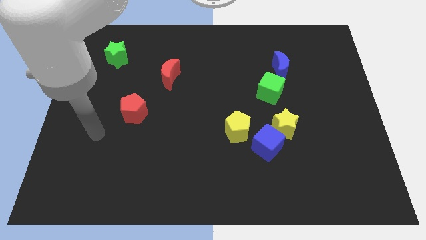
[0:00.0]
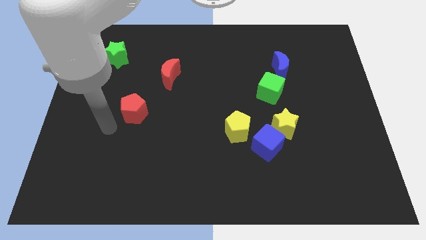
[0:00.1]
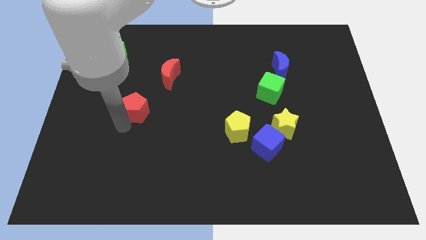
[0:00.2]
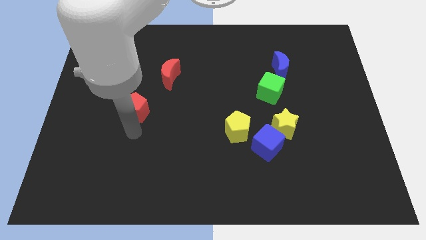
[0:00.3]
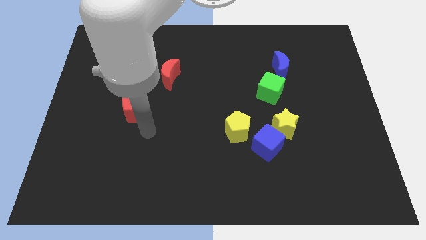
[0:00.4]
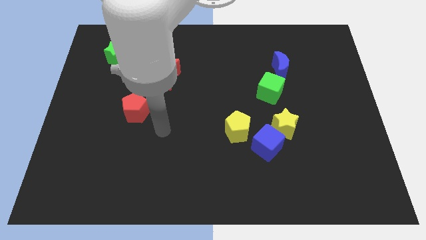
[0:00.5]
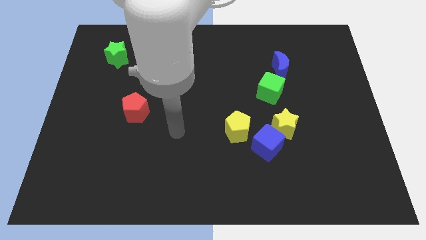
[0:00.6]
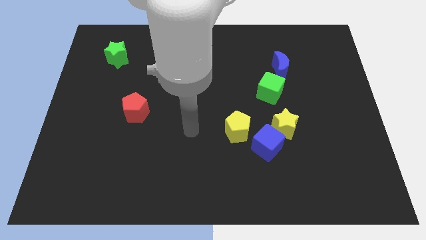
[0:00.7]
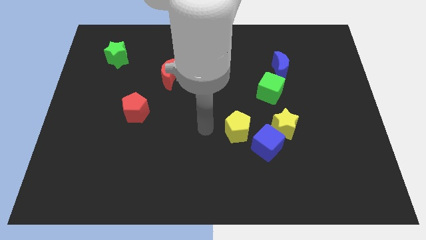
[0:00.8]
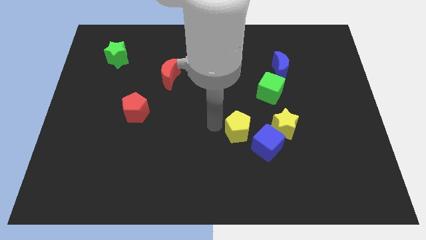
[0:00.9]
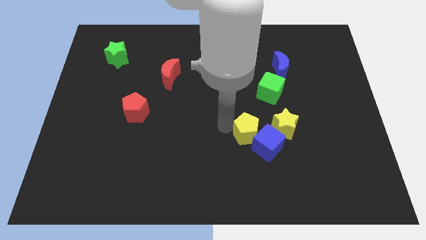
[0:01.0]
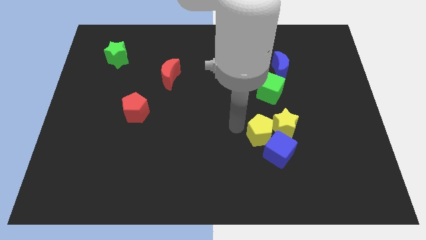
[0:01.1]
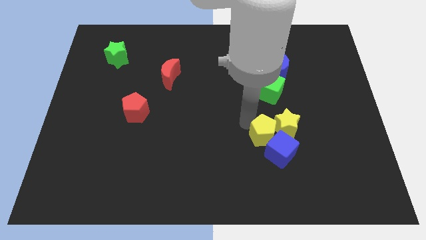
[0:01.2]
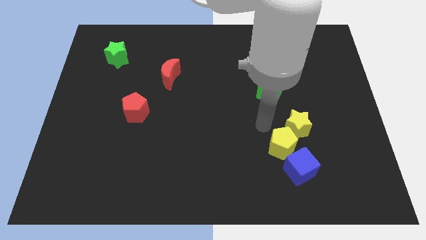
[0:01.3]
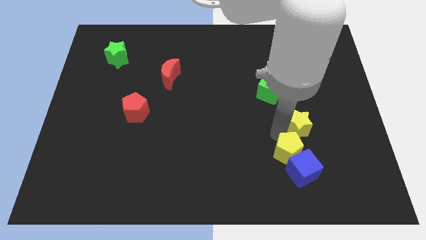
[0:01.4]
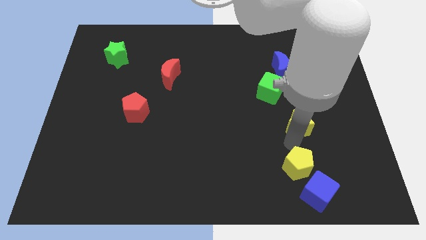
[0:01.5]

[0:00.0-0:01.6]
pull the blue cube apart from the yellow star and yellow pentagon

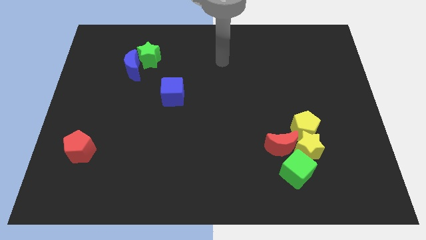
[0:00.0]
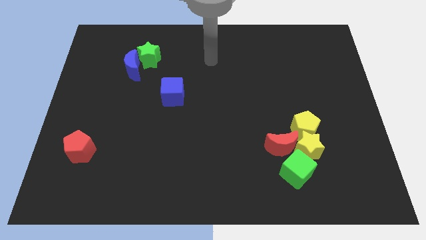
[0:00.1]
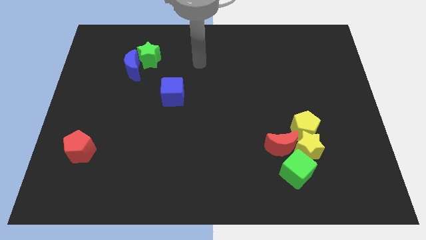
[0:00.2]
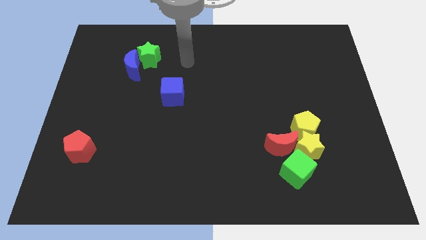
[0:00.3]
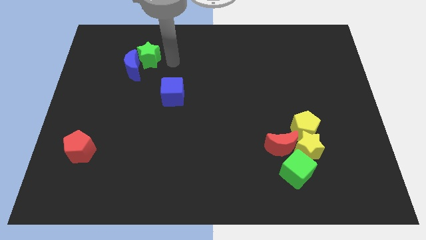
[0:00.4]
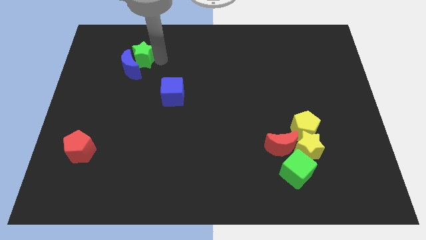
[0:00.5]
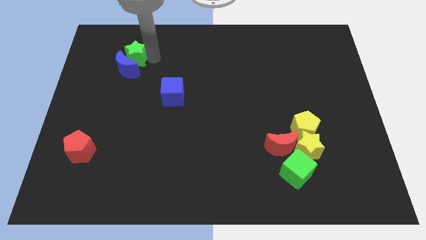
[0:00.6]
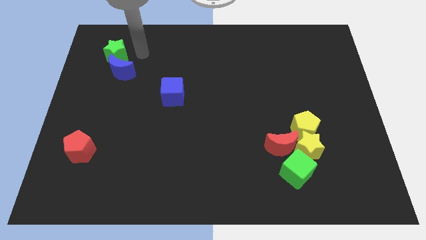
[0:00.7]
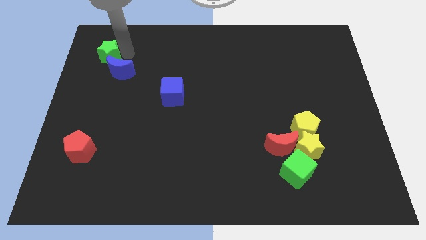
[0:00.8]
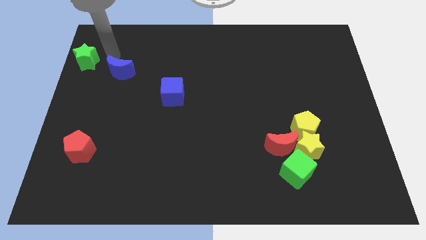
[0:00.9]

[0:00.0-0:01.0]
pull the blue moon apart from the green star

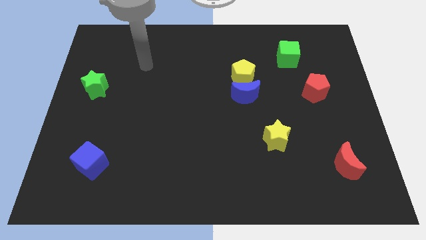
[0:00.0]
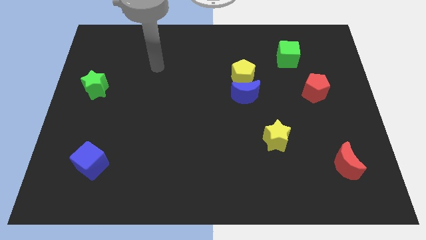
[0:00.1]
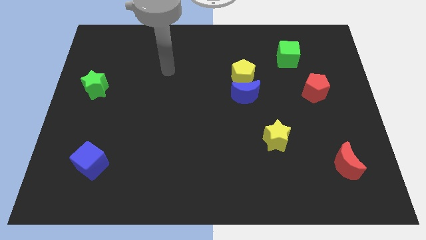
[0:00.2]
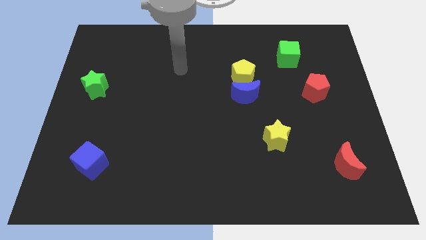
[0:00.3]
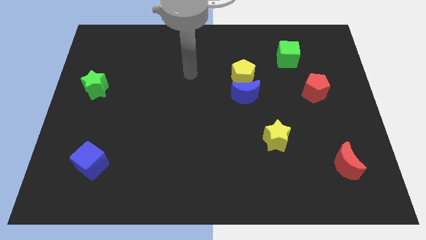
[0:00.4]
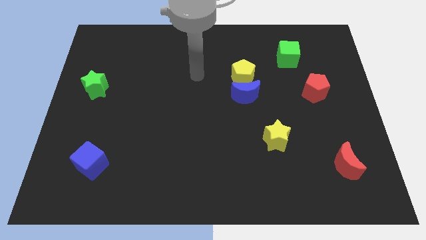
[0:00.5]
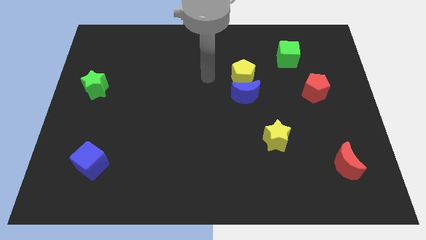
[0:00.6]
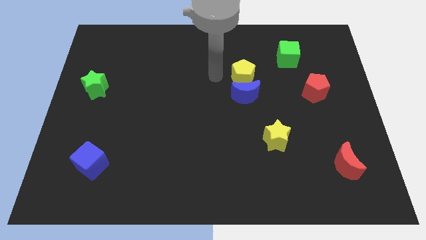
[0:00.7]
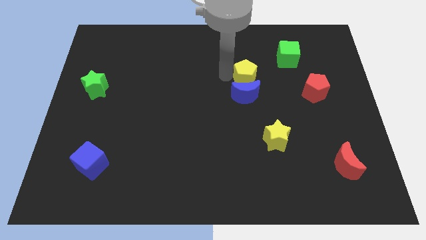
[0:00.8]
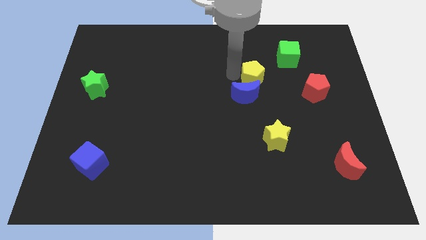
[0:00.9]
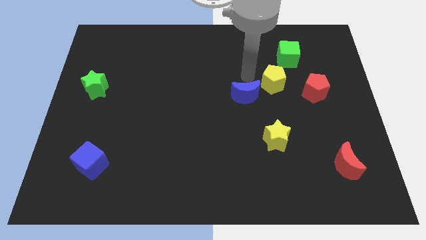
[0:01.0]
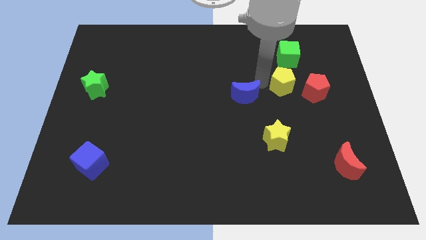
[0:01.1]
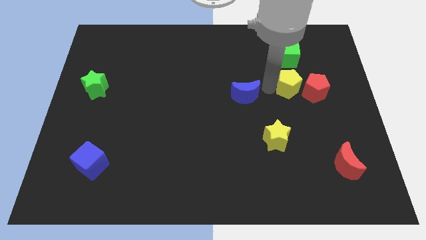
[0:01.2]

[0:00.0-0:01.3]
pull the blue moon apart from the yellow pentagon

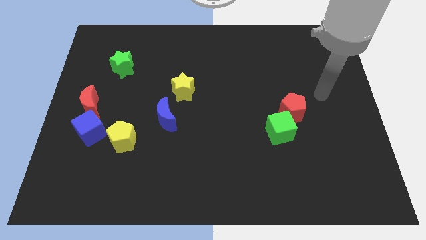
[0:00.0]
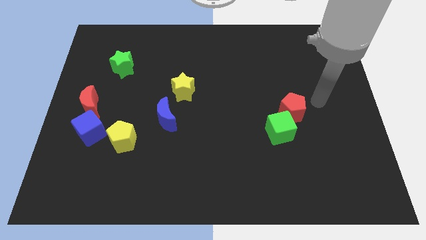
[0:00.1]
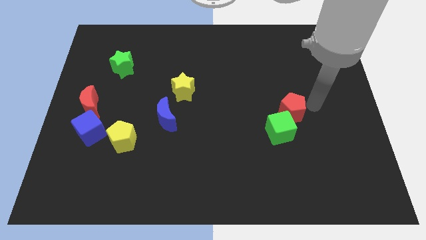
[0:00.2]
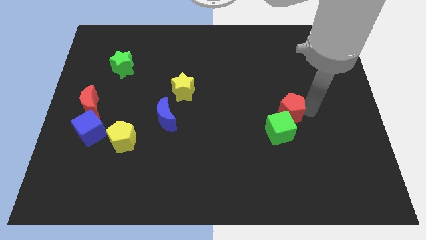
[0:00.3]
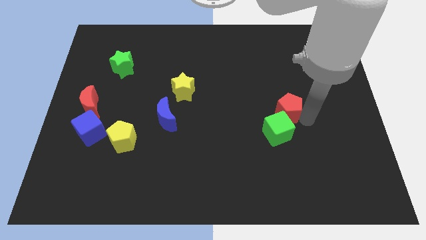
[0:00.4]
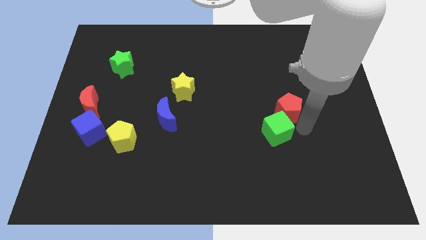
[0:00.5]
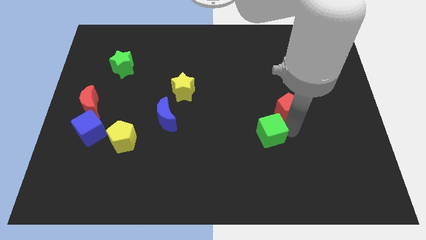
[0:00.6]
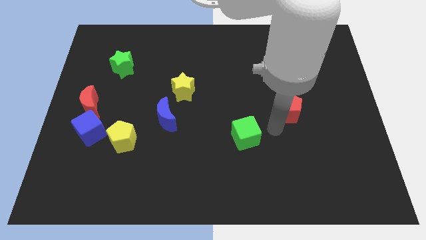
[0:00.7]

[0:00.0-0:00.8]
move the red pentagon away from the green cube

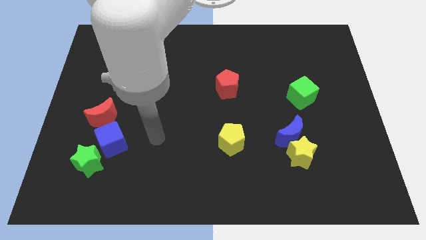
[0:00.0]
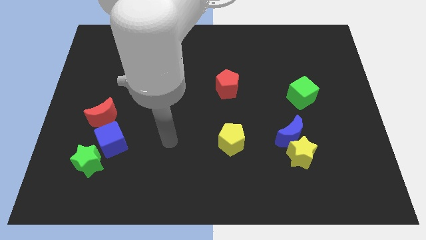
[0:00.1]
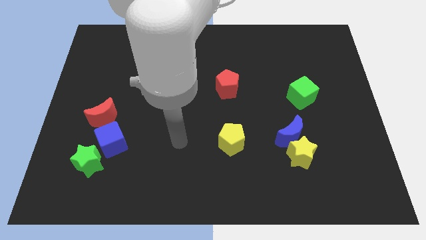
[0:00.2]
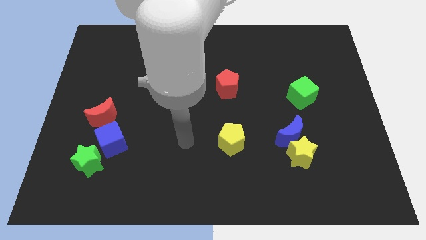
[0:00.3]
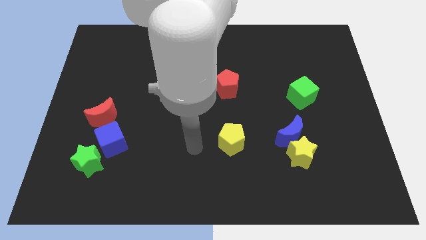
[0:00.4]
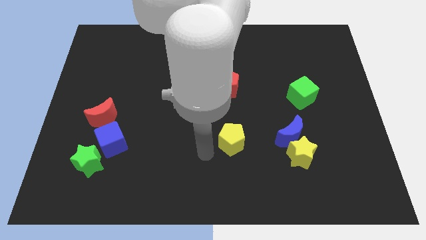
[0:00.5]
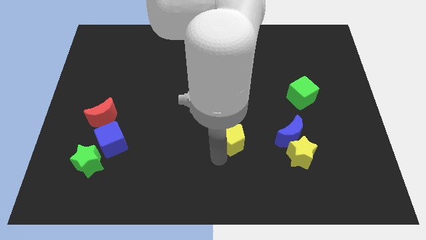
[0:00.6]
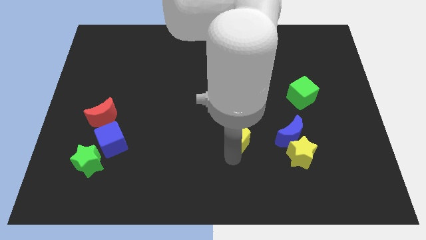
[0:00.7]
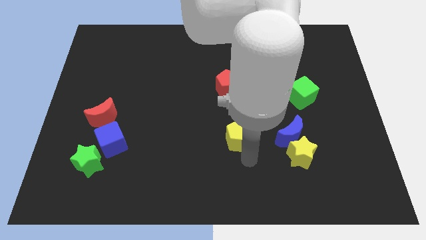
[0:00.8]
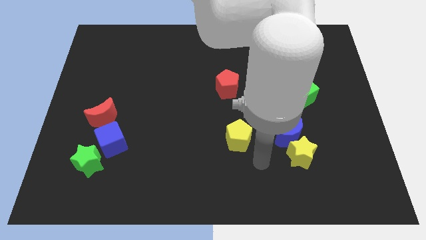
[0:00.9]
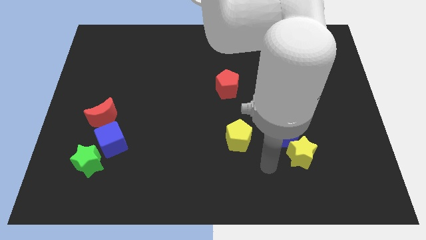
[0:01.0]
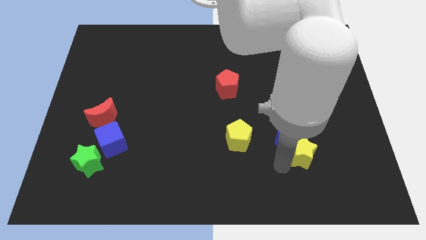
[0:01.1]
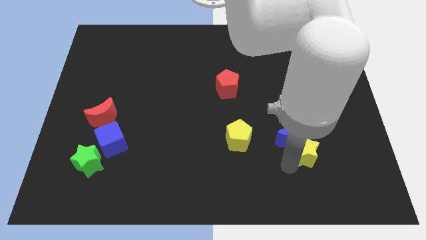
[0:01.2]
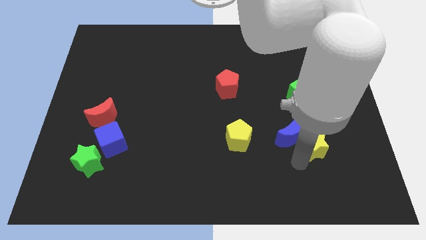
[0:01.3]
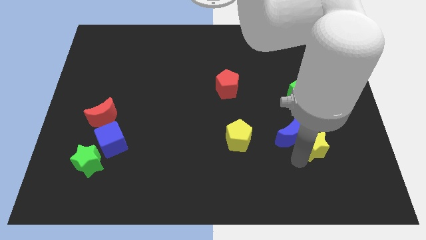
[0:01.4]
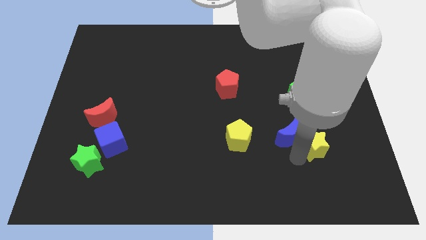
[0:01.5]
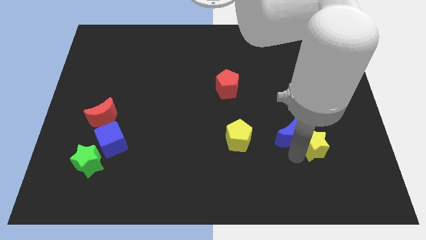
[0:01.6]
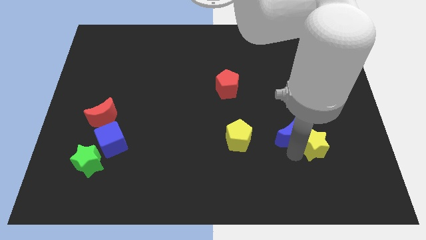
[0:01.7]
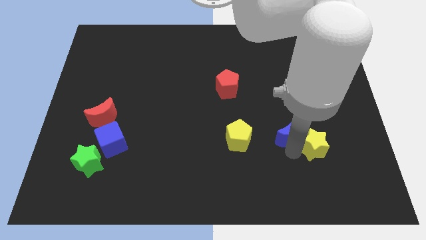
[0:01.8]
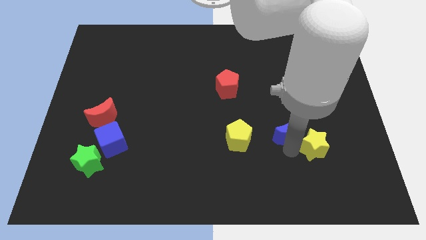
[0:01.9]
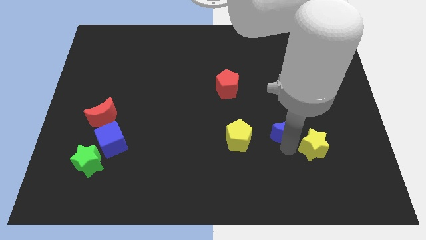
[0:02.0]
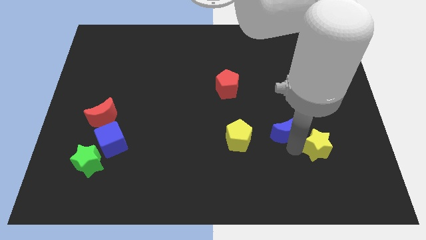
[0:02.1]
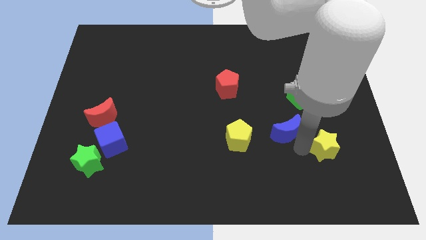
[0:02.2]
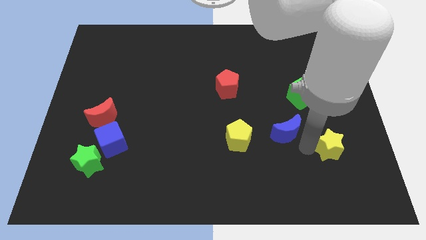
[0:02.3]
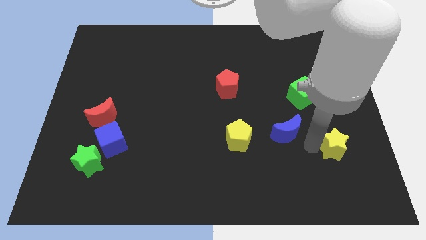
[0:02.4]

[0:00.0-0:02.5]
move the blue moon away from the yellow star

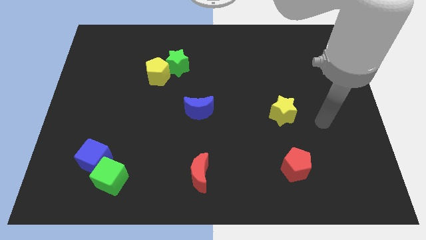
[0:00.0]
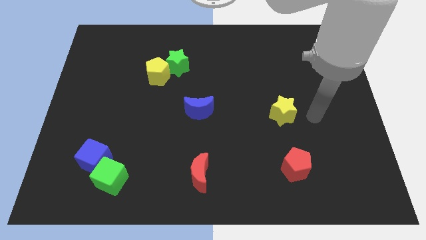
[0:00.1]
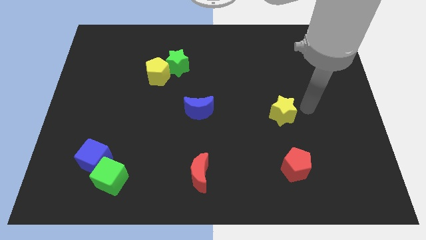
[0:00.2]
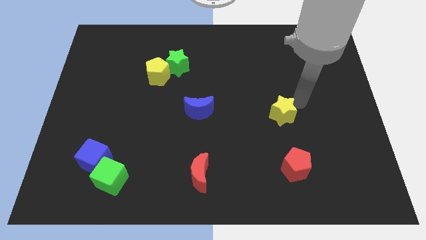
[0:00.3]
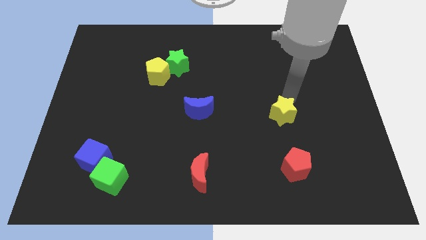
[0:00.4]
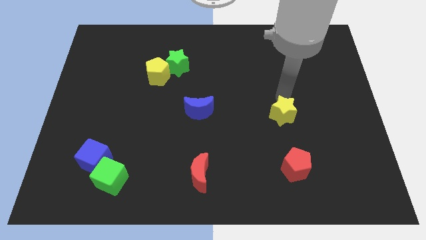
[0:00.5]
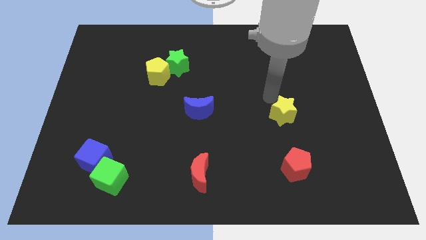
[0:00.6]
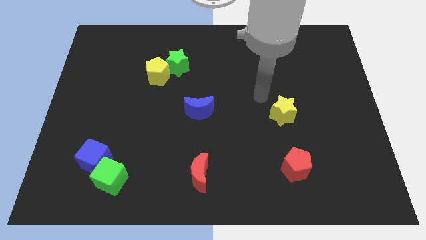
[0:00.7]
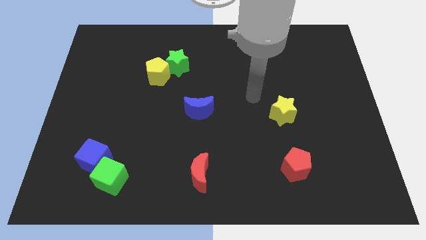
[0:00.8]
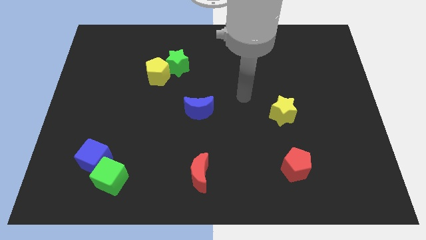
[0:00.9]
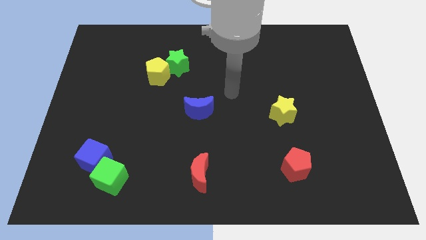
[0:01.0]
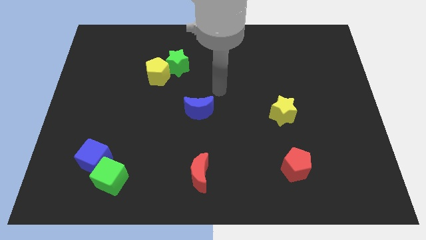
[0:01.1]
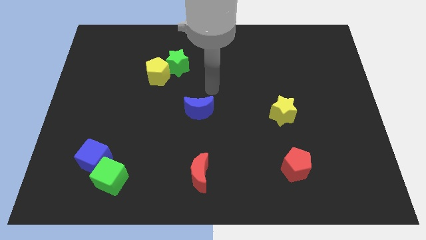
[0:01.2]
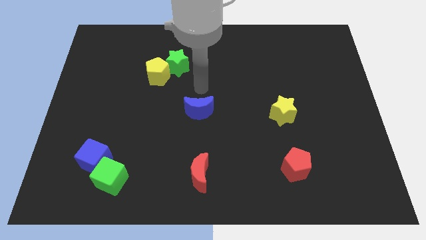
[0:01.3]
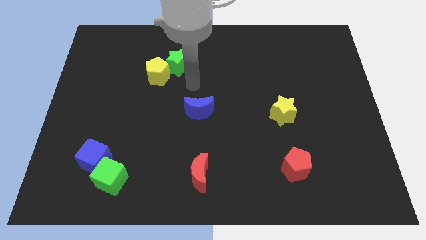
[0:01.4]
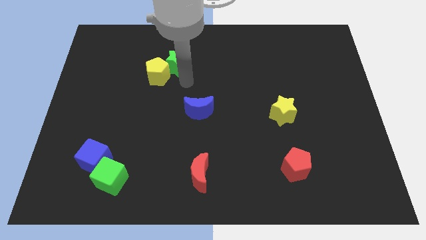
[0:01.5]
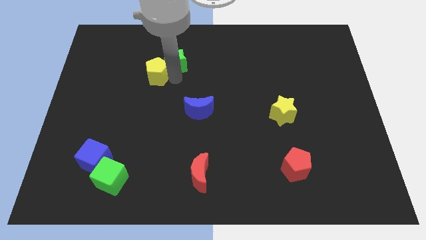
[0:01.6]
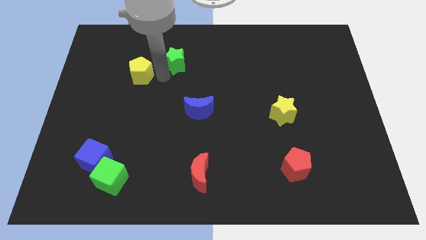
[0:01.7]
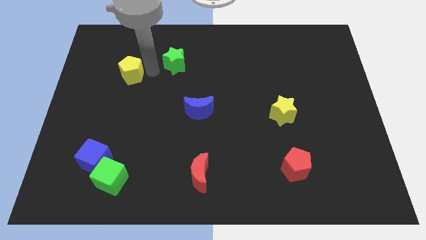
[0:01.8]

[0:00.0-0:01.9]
pull the green star apart from the yellow pentagon

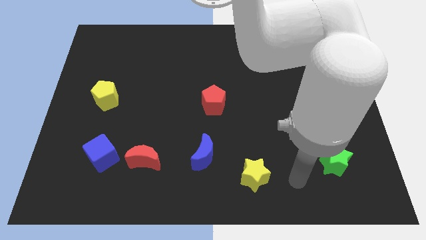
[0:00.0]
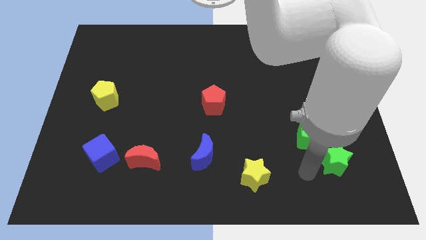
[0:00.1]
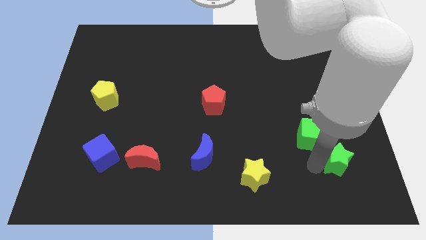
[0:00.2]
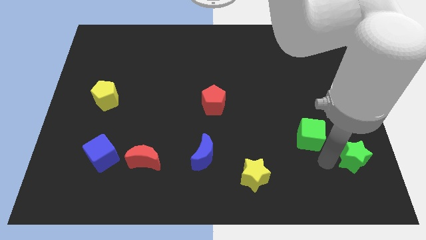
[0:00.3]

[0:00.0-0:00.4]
move the green cube away from the green star
